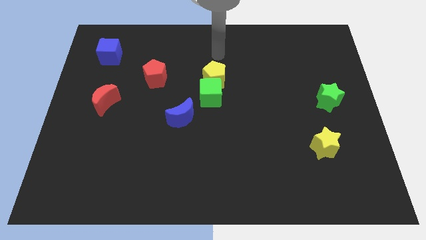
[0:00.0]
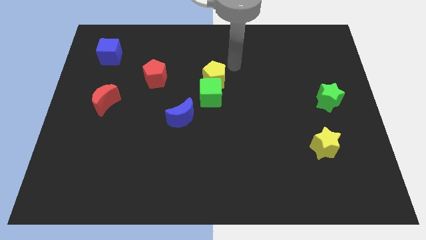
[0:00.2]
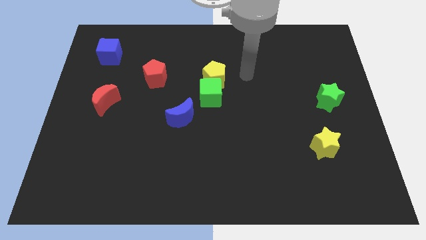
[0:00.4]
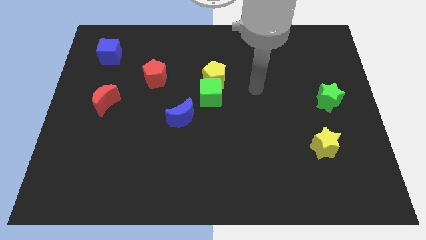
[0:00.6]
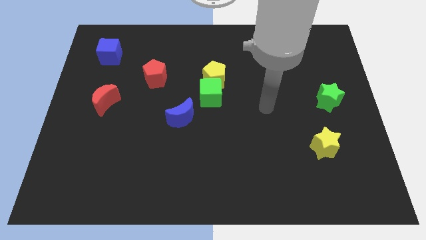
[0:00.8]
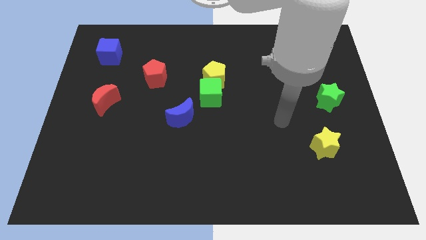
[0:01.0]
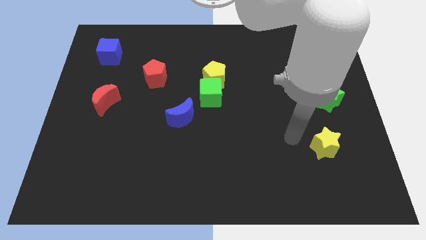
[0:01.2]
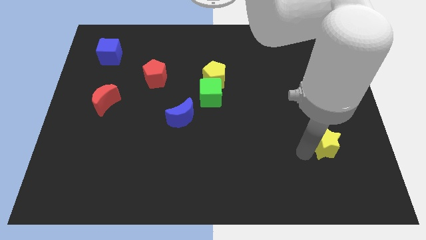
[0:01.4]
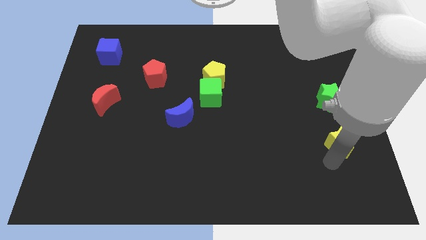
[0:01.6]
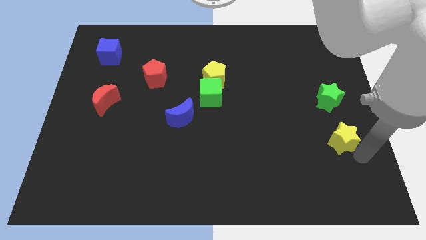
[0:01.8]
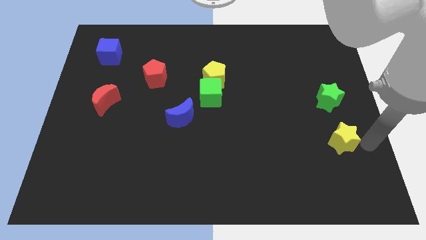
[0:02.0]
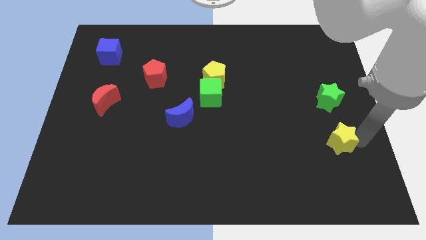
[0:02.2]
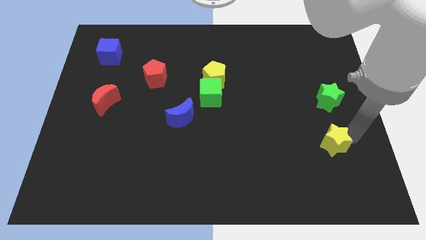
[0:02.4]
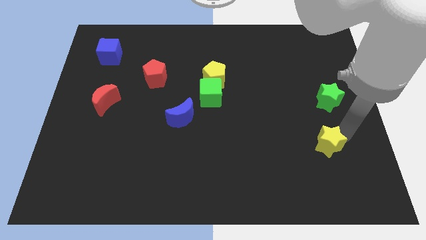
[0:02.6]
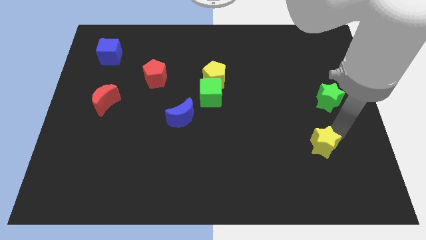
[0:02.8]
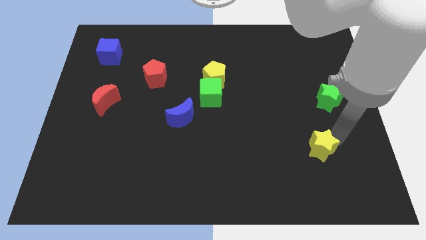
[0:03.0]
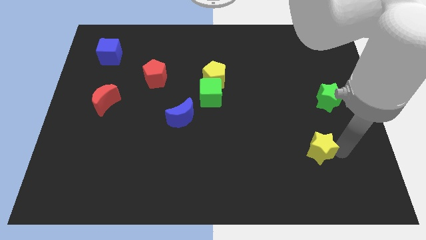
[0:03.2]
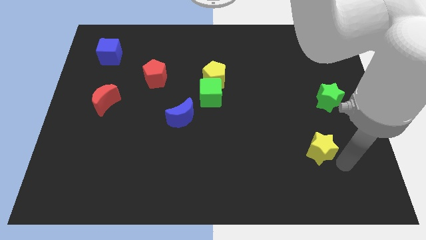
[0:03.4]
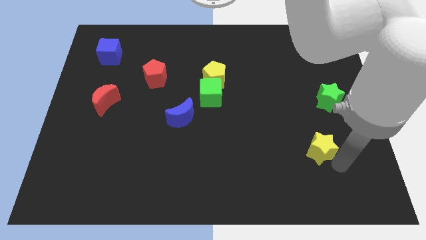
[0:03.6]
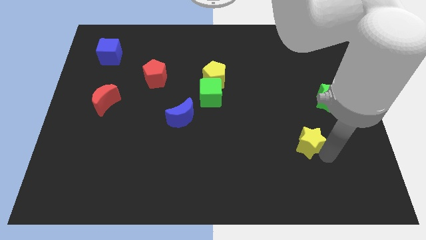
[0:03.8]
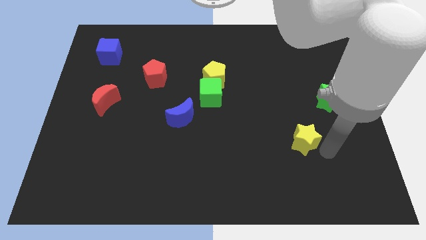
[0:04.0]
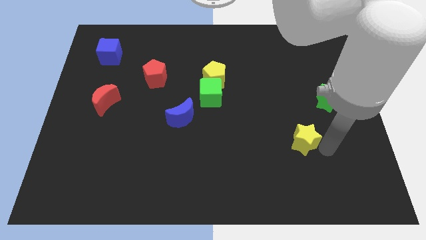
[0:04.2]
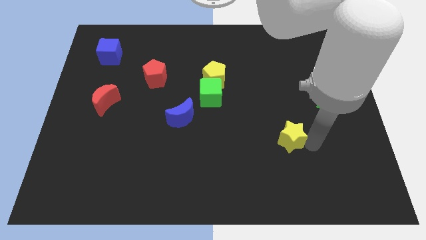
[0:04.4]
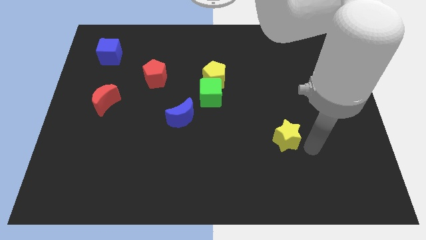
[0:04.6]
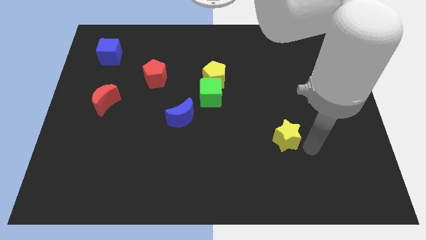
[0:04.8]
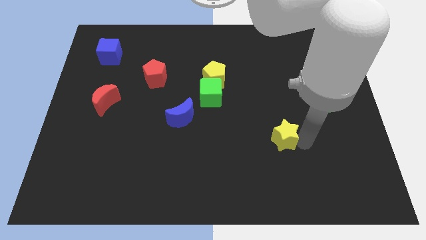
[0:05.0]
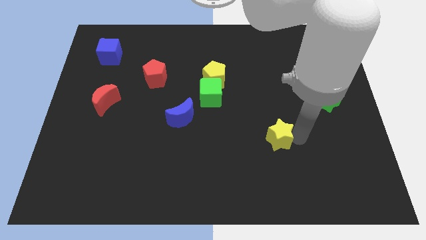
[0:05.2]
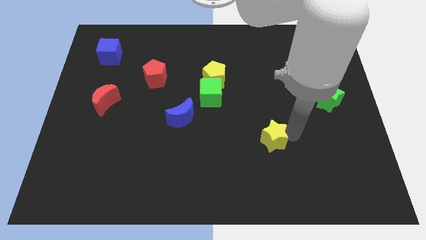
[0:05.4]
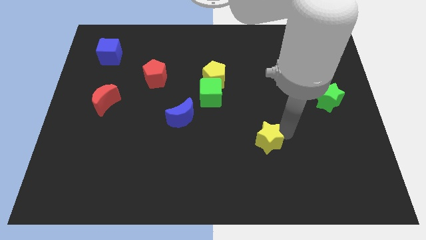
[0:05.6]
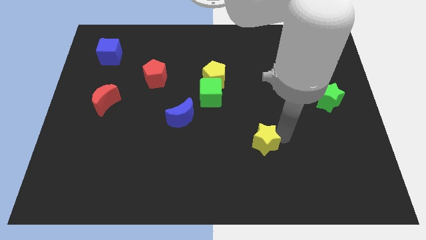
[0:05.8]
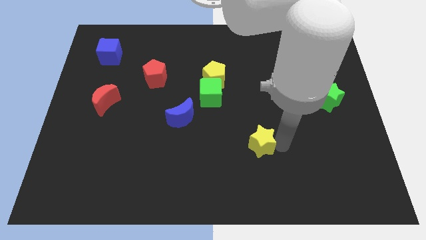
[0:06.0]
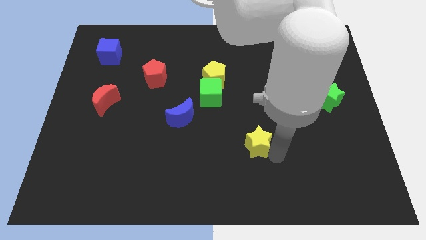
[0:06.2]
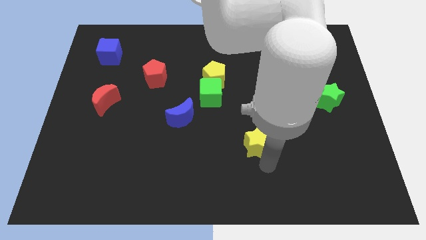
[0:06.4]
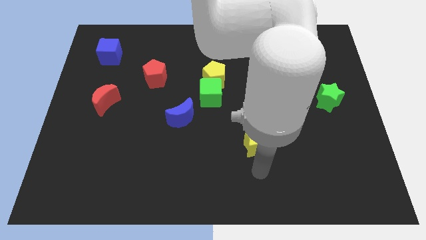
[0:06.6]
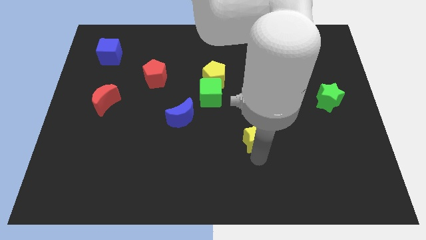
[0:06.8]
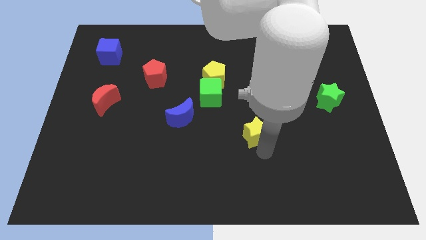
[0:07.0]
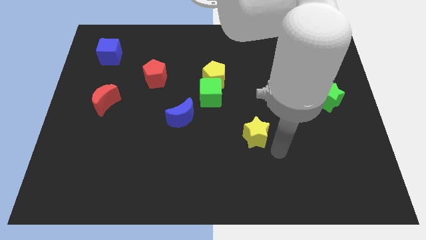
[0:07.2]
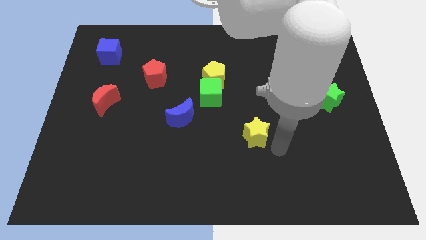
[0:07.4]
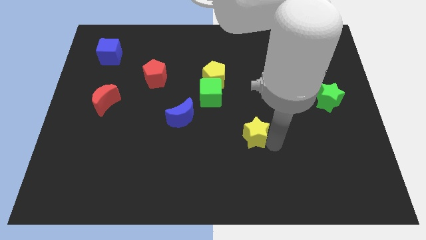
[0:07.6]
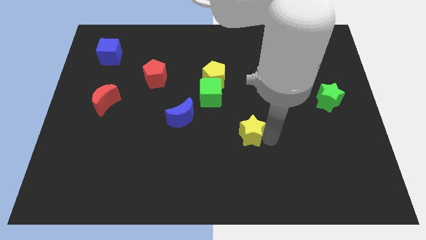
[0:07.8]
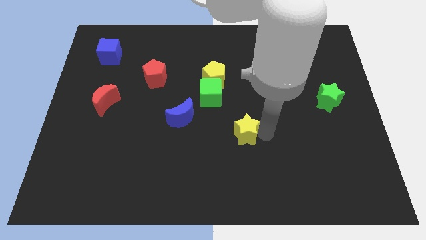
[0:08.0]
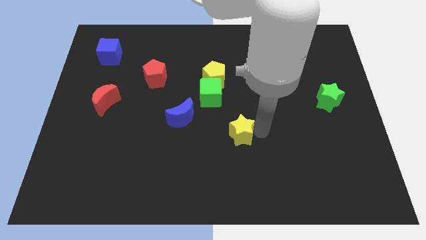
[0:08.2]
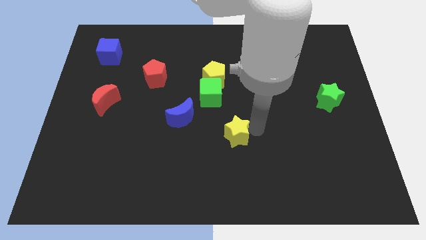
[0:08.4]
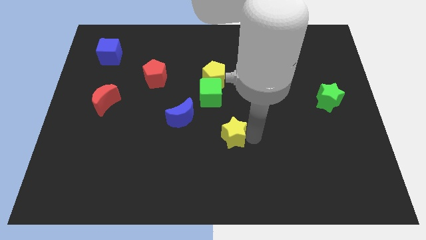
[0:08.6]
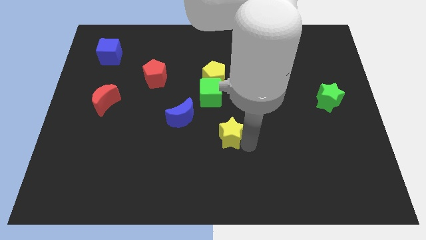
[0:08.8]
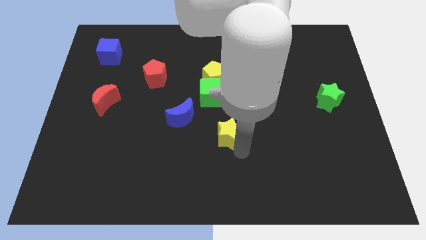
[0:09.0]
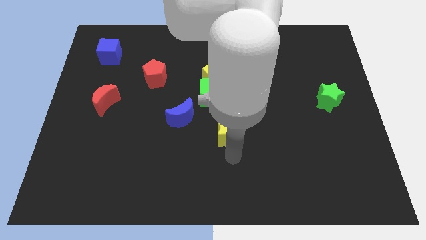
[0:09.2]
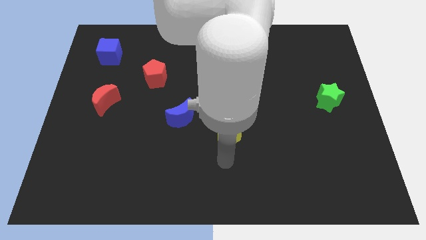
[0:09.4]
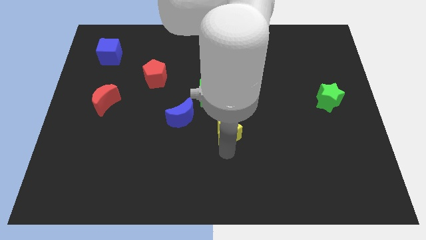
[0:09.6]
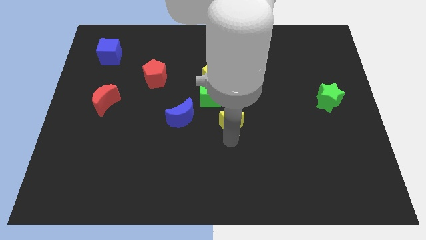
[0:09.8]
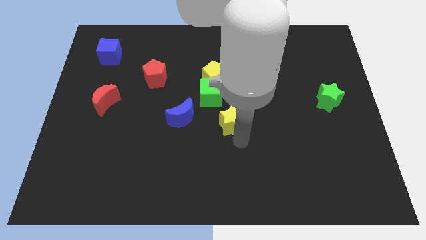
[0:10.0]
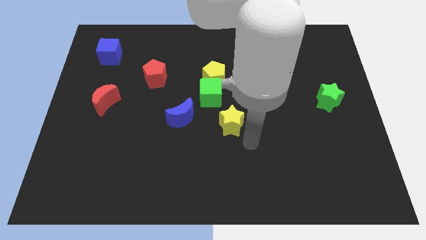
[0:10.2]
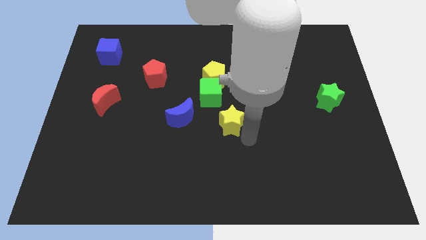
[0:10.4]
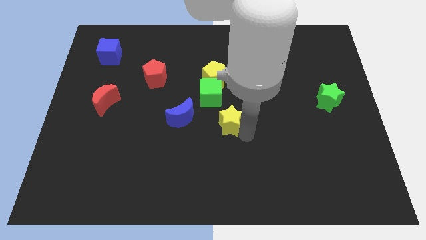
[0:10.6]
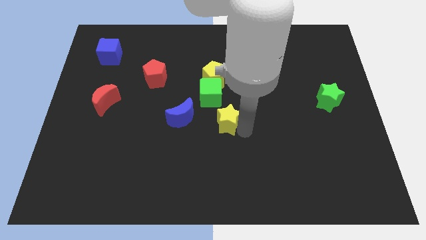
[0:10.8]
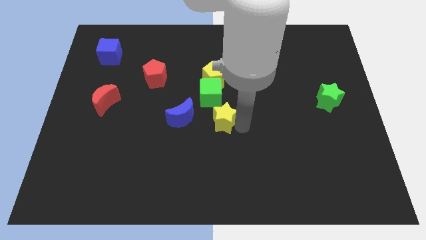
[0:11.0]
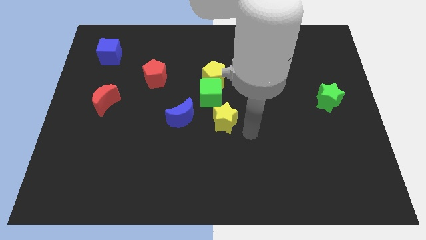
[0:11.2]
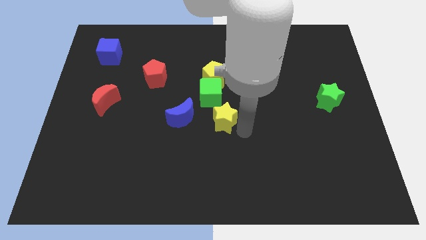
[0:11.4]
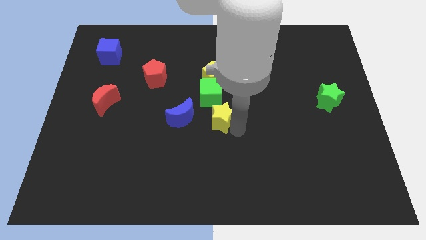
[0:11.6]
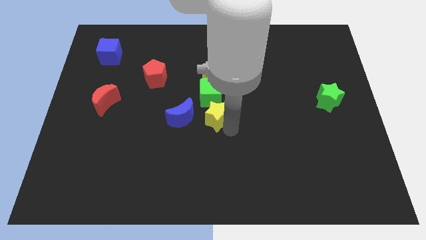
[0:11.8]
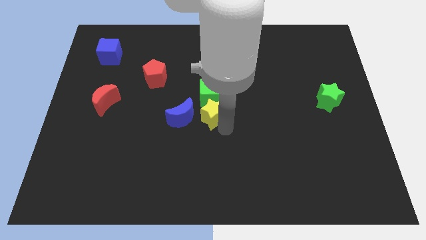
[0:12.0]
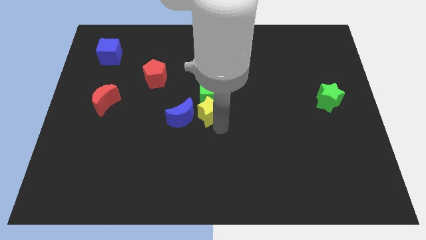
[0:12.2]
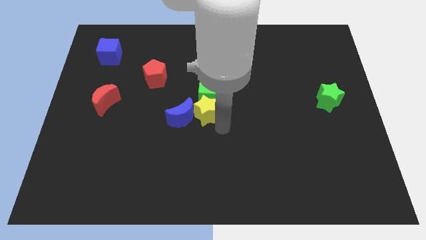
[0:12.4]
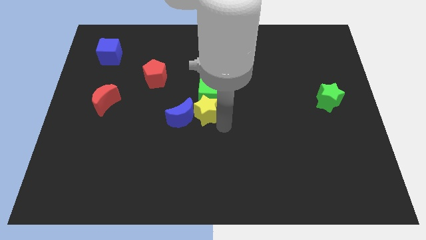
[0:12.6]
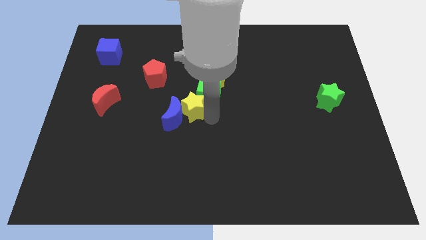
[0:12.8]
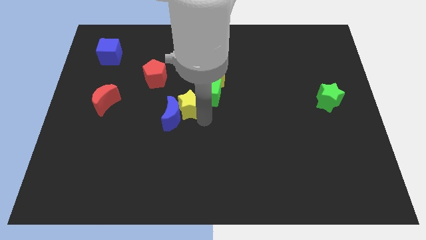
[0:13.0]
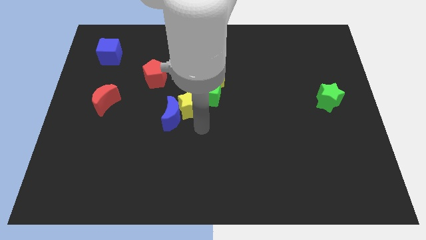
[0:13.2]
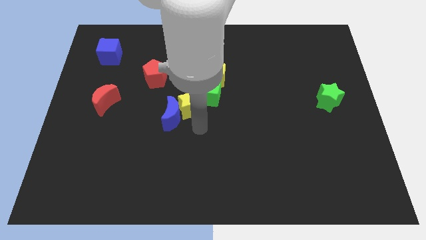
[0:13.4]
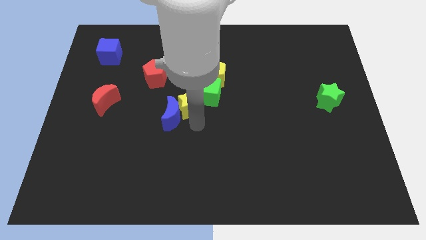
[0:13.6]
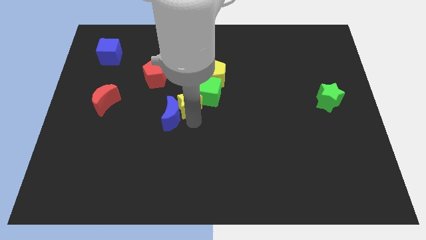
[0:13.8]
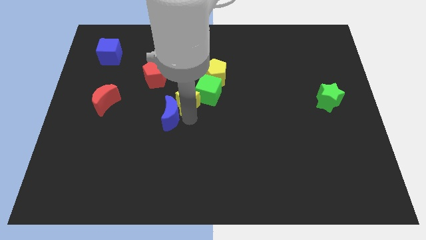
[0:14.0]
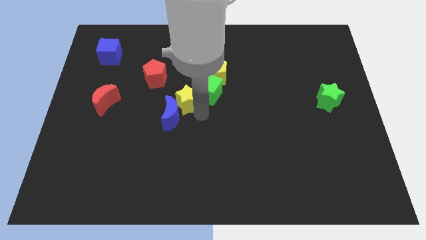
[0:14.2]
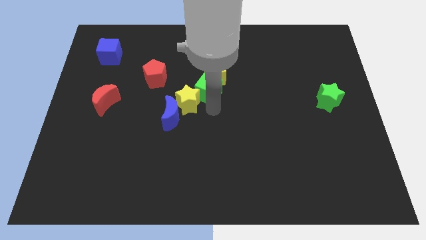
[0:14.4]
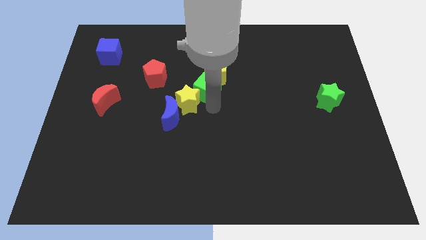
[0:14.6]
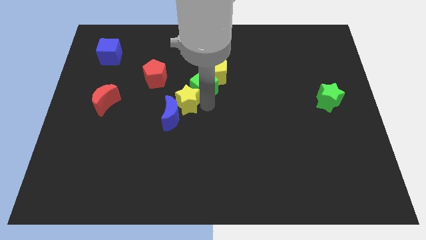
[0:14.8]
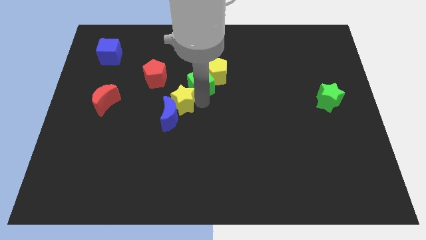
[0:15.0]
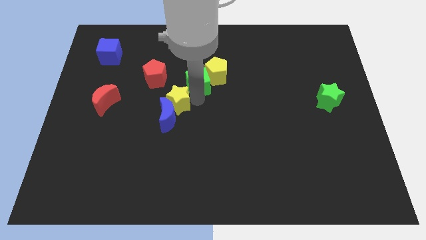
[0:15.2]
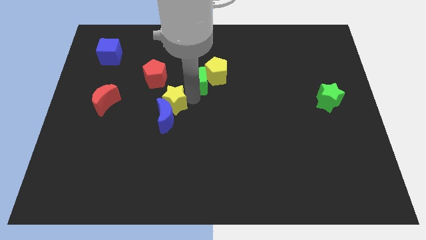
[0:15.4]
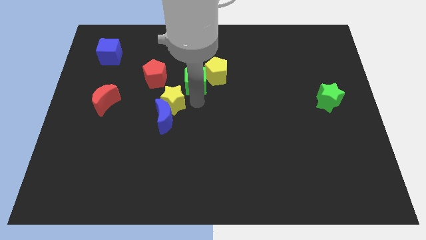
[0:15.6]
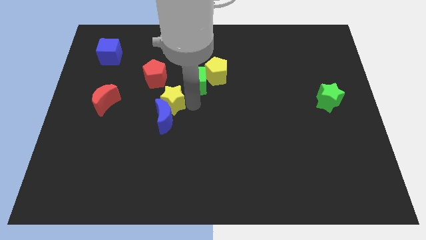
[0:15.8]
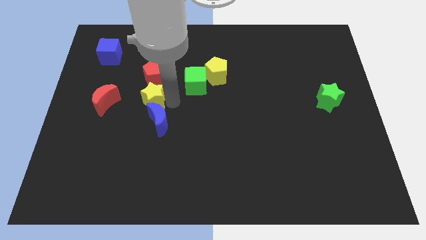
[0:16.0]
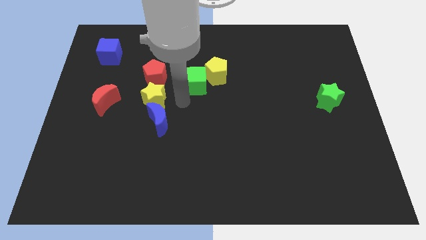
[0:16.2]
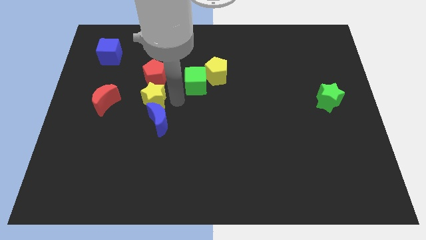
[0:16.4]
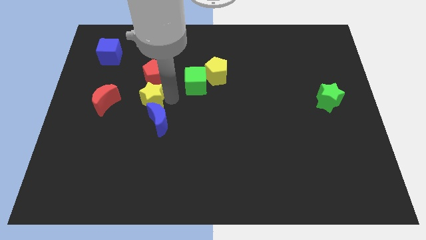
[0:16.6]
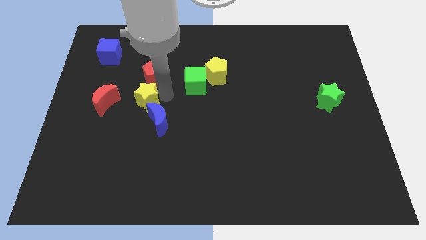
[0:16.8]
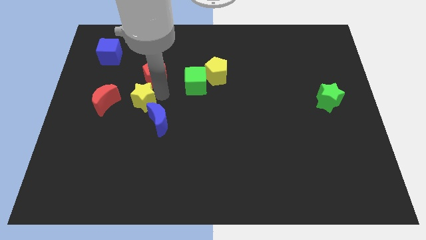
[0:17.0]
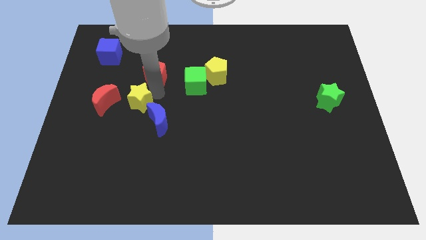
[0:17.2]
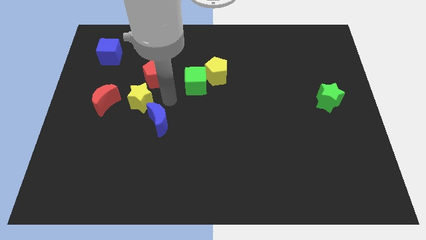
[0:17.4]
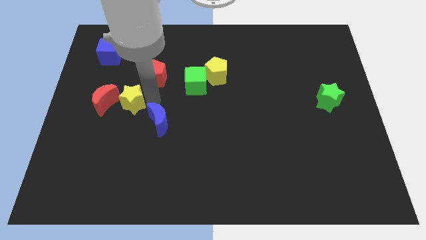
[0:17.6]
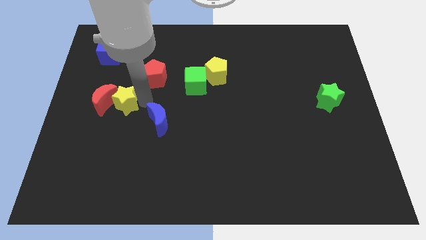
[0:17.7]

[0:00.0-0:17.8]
put the yellow star next to the red moon
